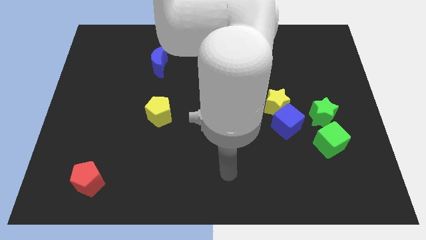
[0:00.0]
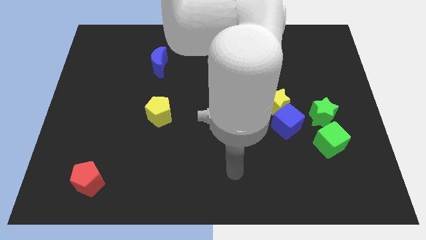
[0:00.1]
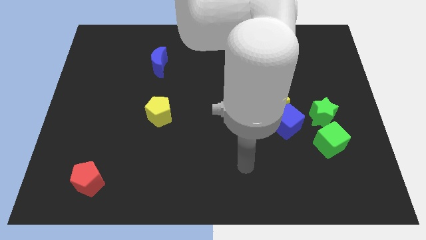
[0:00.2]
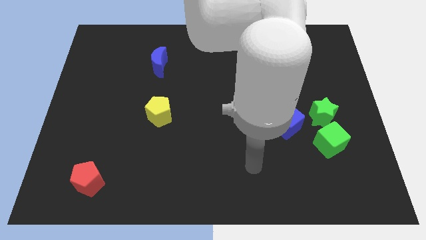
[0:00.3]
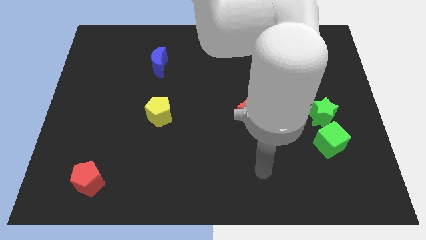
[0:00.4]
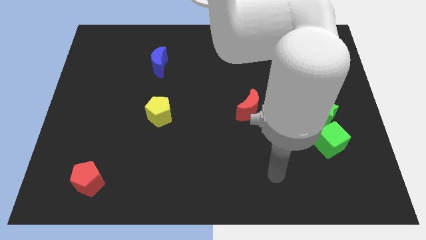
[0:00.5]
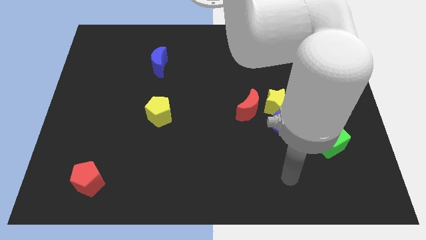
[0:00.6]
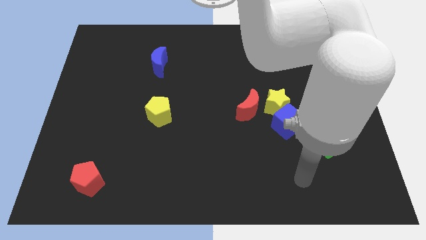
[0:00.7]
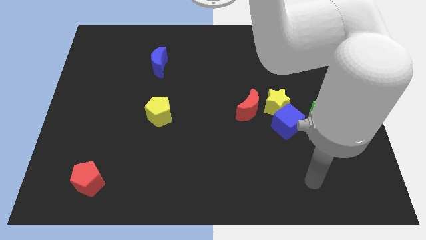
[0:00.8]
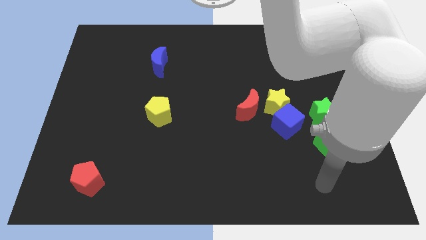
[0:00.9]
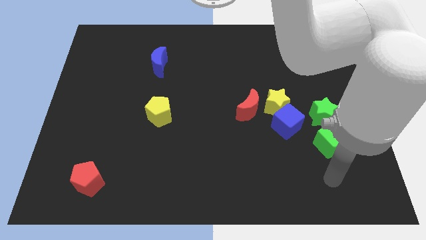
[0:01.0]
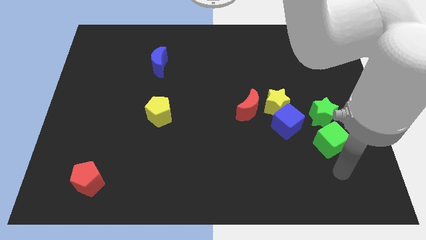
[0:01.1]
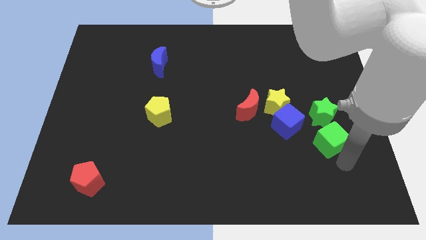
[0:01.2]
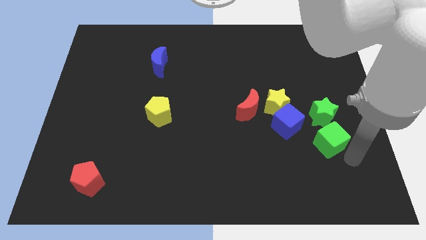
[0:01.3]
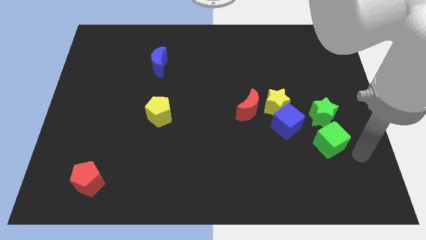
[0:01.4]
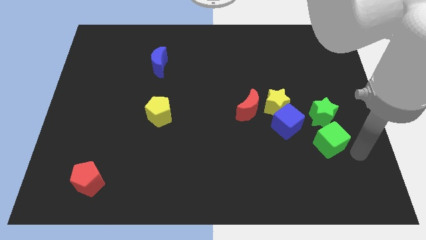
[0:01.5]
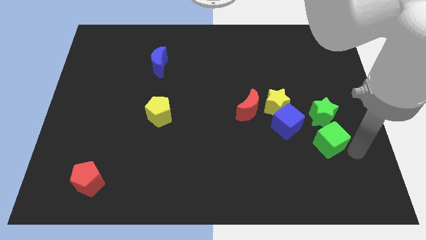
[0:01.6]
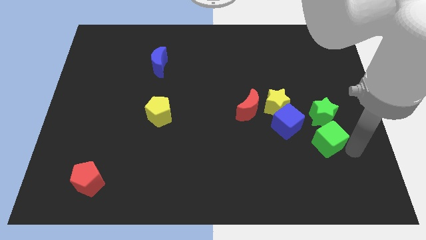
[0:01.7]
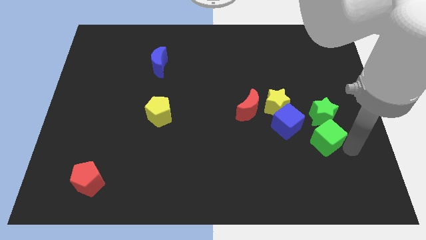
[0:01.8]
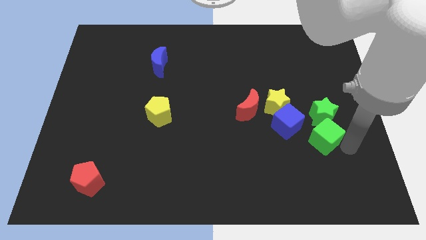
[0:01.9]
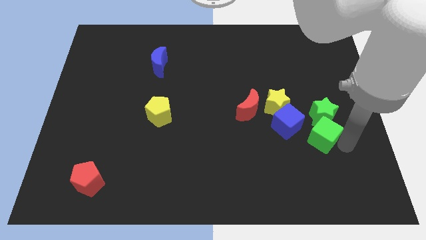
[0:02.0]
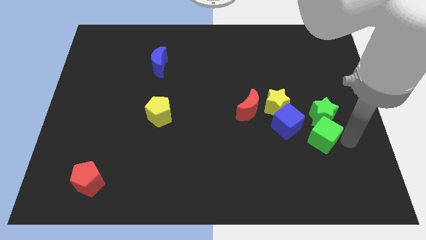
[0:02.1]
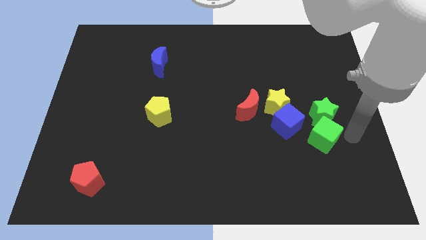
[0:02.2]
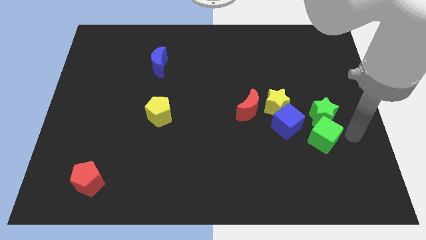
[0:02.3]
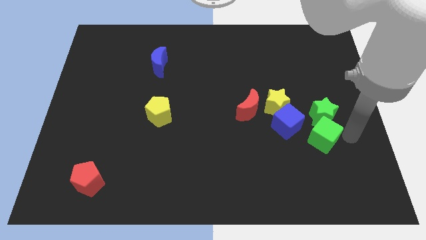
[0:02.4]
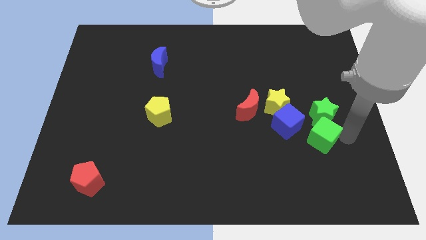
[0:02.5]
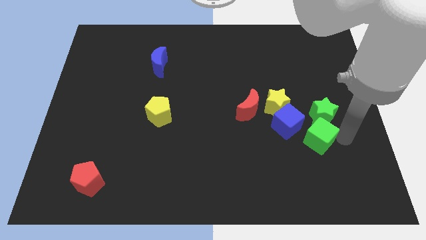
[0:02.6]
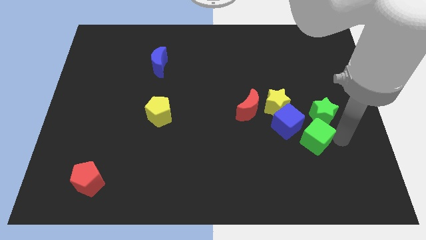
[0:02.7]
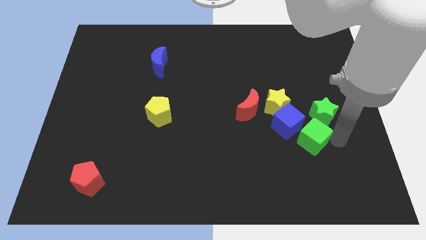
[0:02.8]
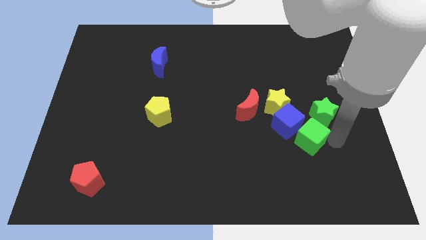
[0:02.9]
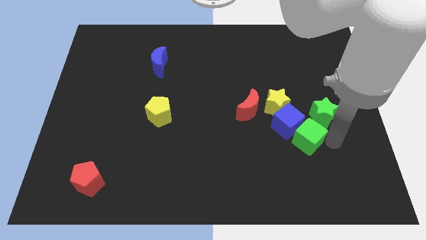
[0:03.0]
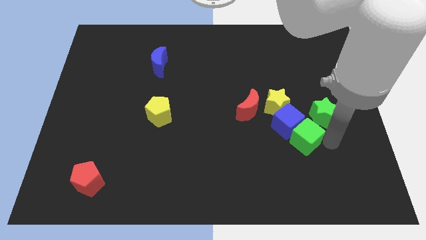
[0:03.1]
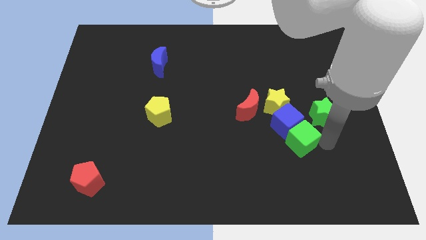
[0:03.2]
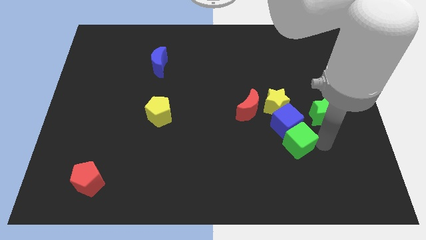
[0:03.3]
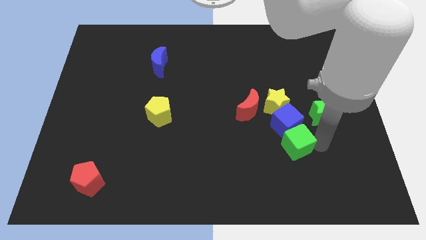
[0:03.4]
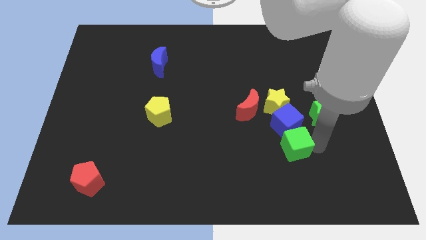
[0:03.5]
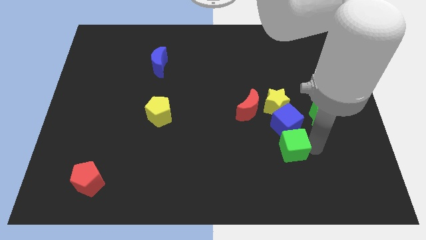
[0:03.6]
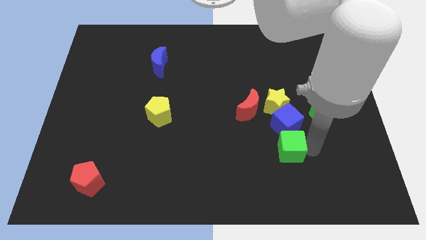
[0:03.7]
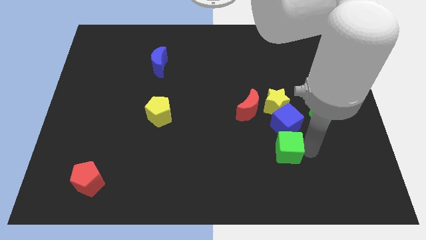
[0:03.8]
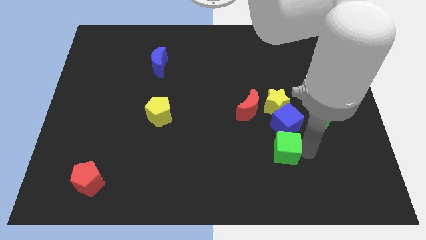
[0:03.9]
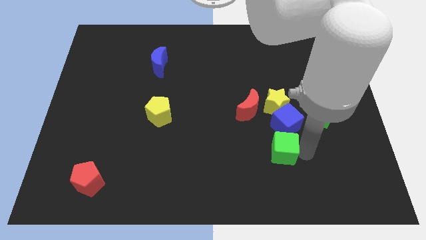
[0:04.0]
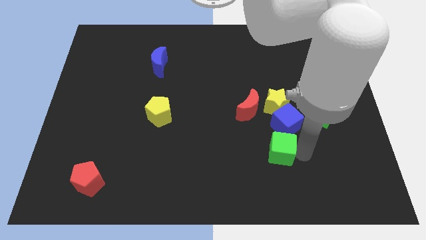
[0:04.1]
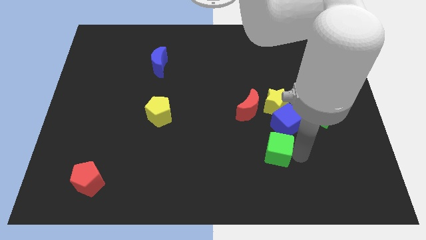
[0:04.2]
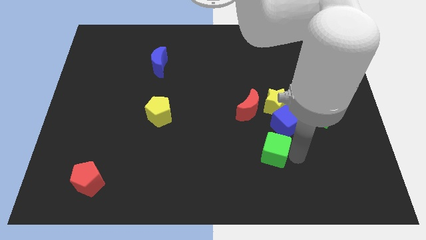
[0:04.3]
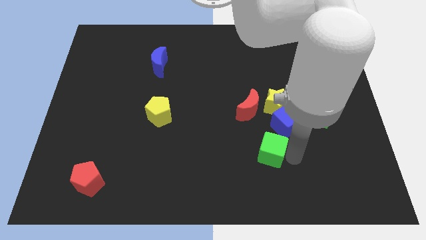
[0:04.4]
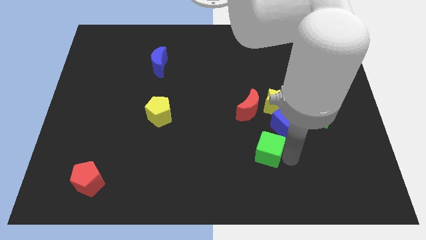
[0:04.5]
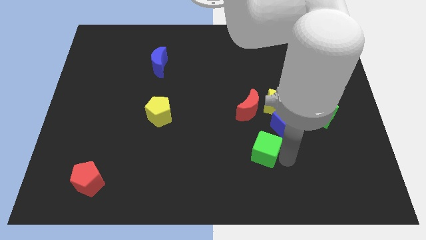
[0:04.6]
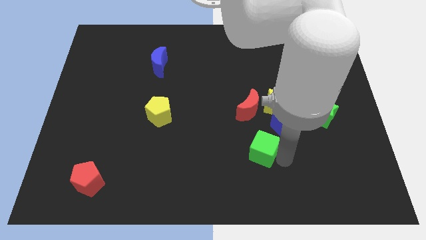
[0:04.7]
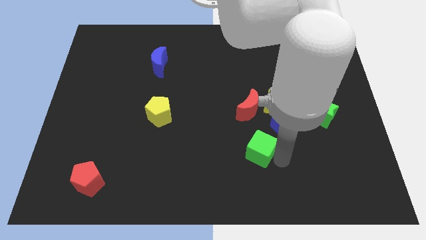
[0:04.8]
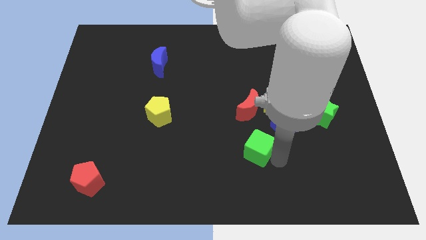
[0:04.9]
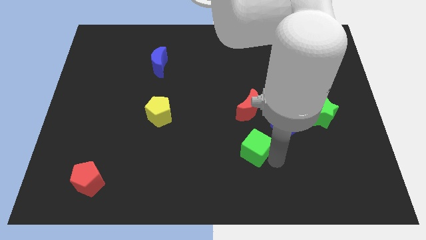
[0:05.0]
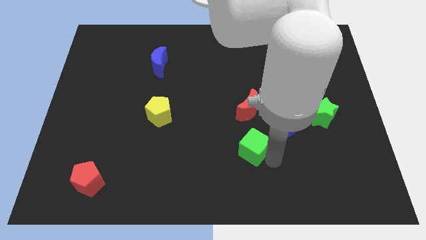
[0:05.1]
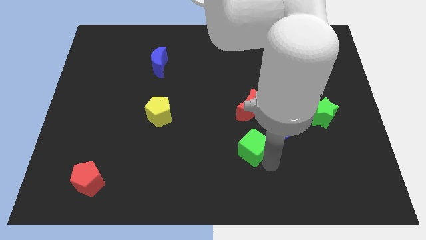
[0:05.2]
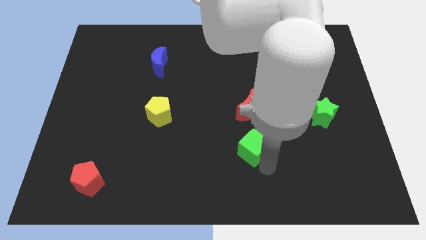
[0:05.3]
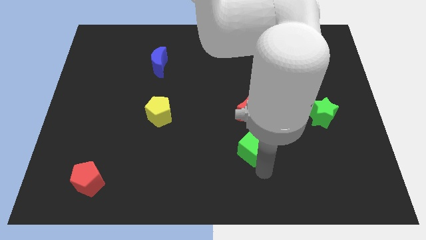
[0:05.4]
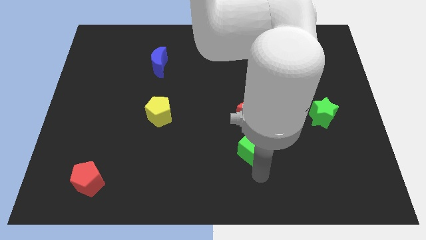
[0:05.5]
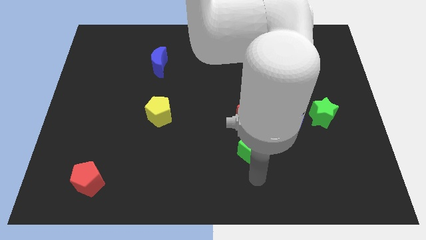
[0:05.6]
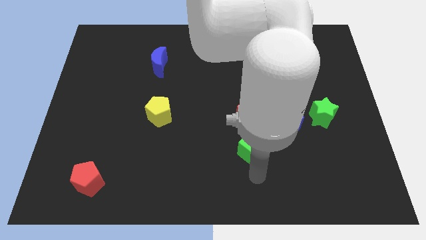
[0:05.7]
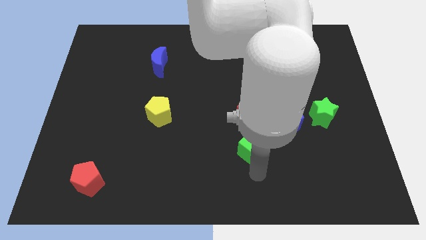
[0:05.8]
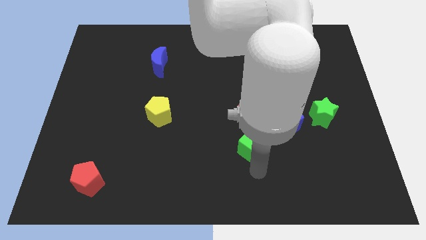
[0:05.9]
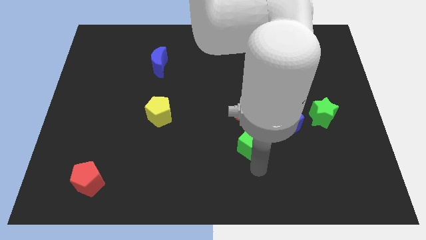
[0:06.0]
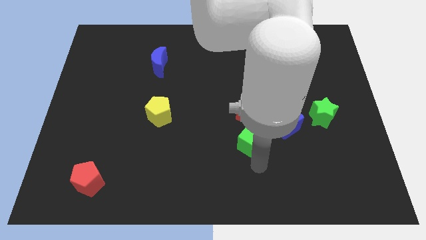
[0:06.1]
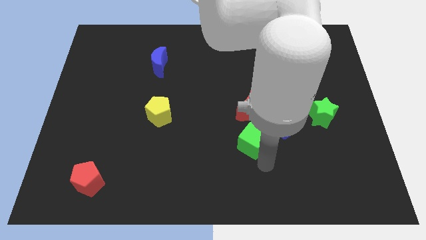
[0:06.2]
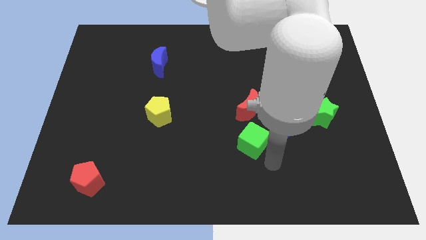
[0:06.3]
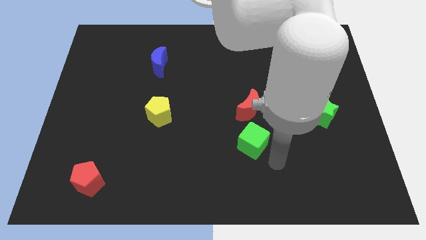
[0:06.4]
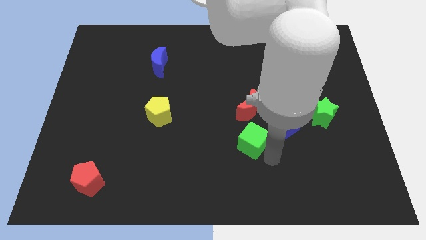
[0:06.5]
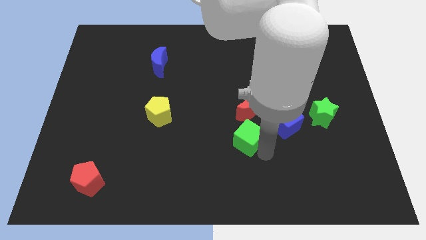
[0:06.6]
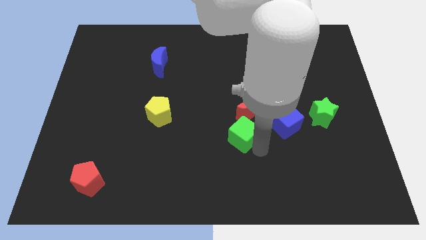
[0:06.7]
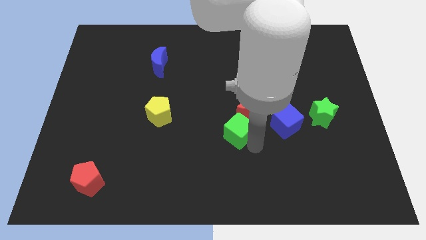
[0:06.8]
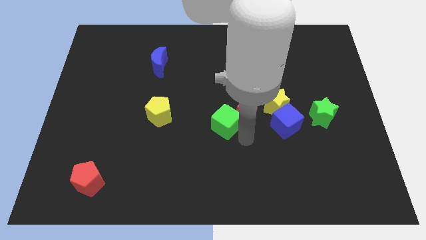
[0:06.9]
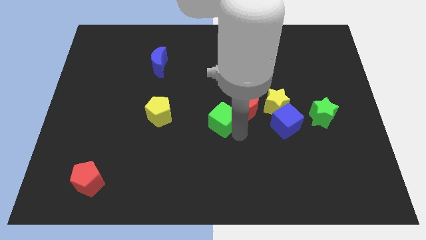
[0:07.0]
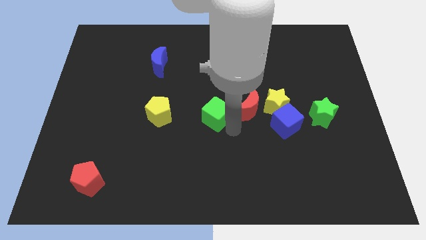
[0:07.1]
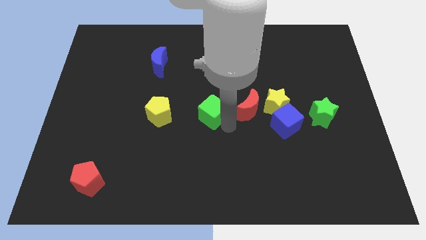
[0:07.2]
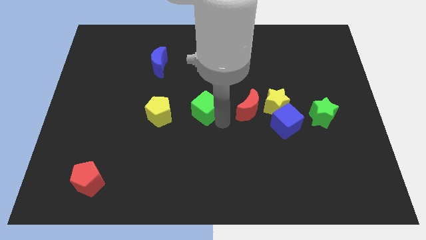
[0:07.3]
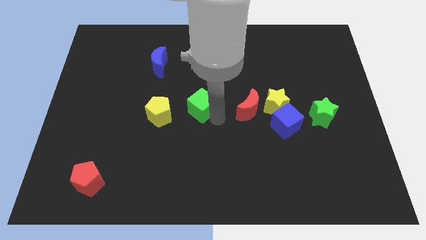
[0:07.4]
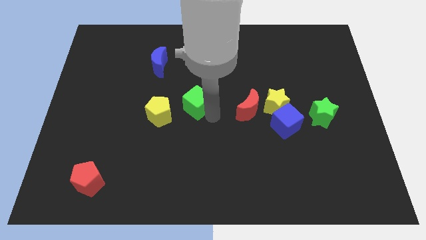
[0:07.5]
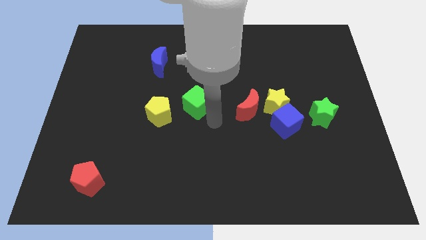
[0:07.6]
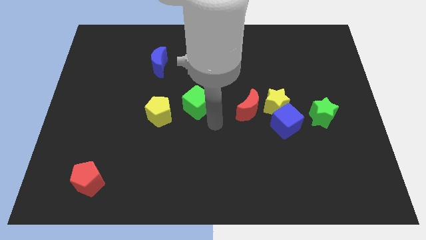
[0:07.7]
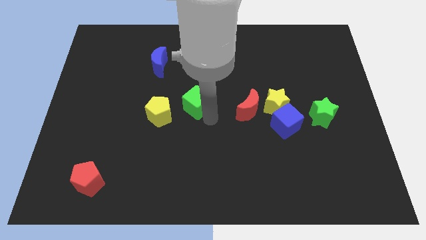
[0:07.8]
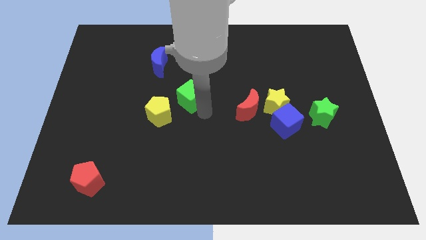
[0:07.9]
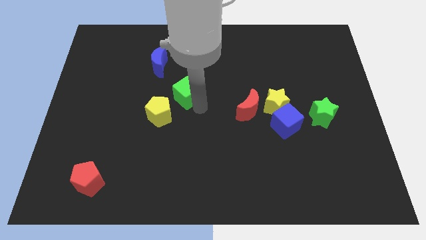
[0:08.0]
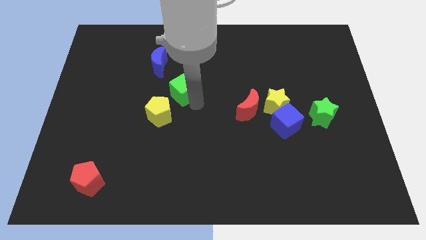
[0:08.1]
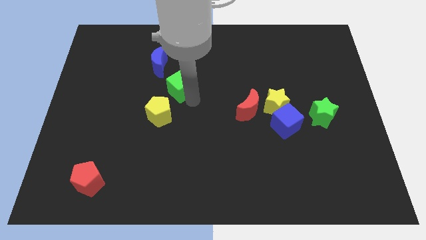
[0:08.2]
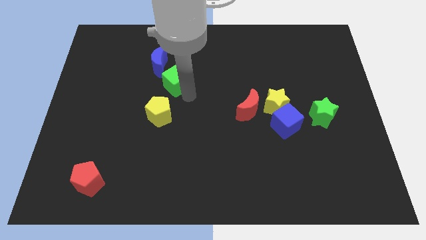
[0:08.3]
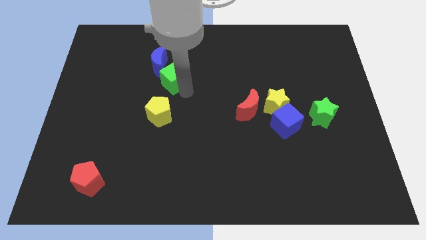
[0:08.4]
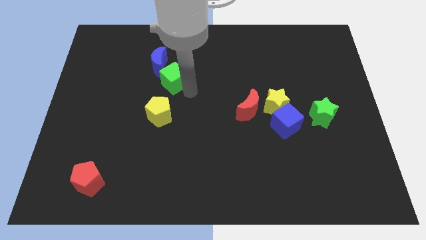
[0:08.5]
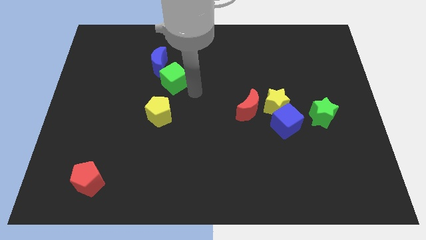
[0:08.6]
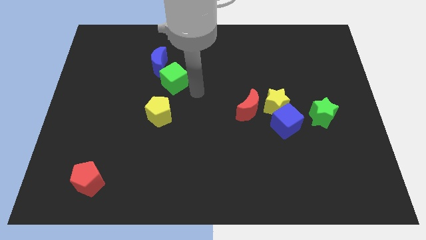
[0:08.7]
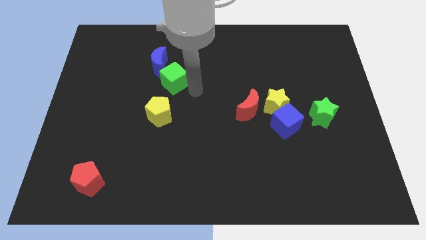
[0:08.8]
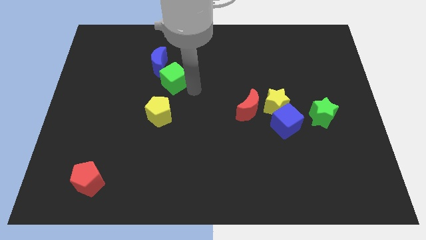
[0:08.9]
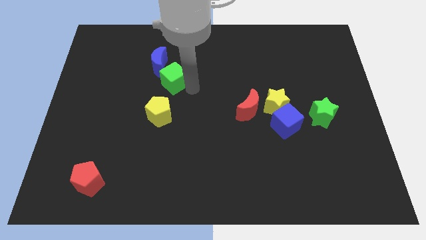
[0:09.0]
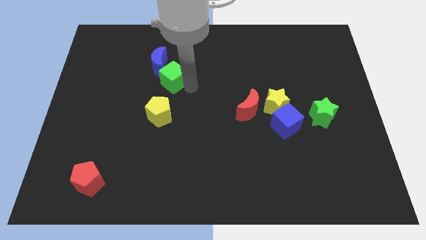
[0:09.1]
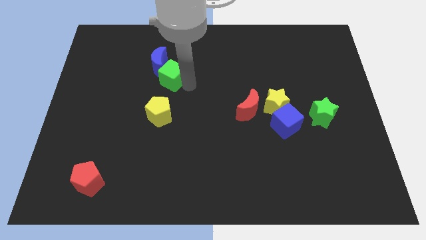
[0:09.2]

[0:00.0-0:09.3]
slide the green cube to the blue moon
